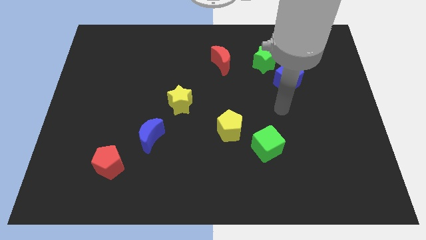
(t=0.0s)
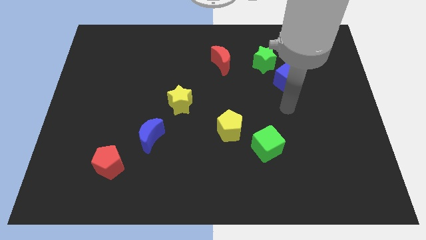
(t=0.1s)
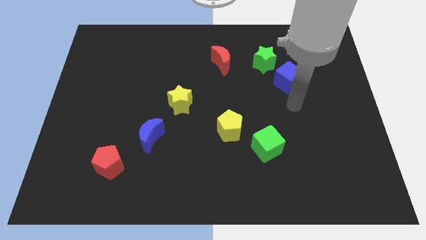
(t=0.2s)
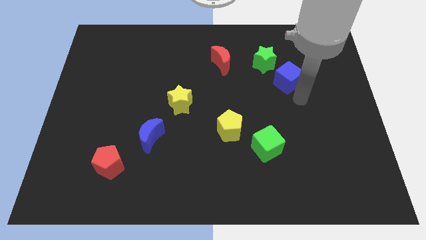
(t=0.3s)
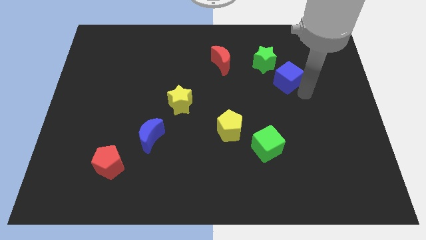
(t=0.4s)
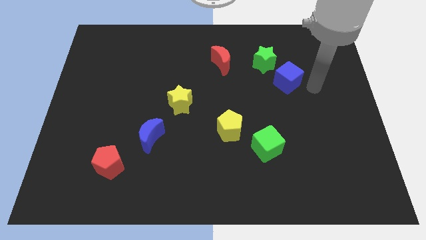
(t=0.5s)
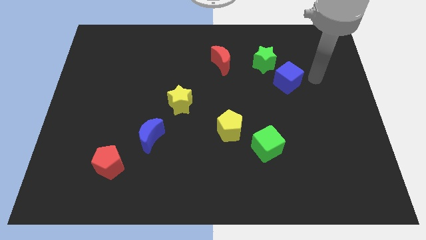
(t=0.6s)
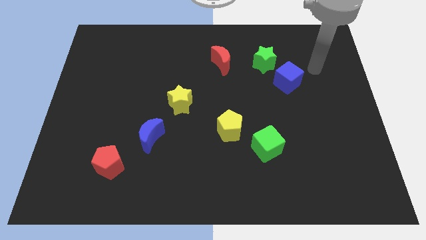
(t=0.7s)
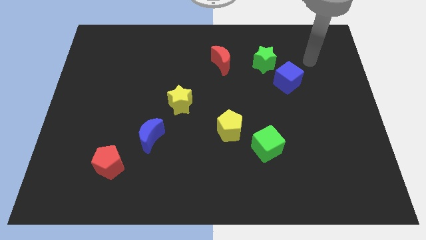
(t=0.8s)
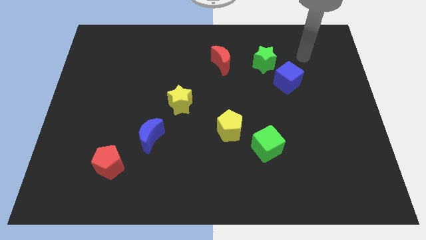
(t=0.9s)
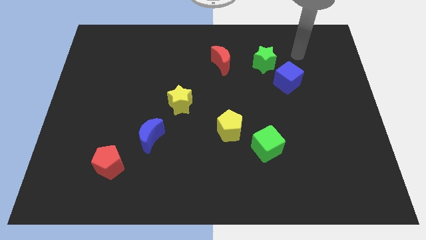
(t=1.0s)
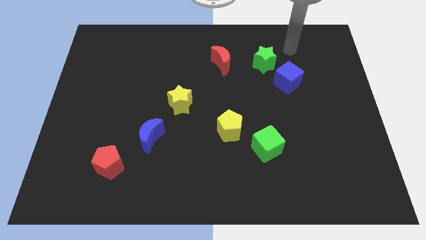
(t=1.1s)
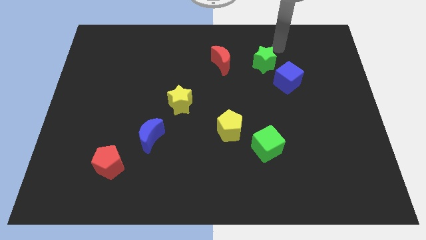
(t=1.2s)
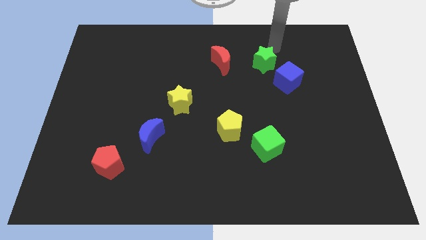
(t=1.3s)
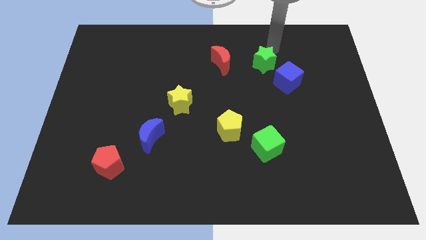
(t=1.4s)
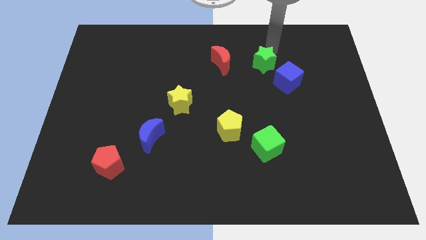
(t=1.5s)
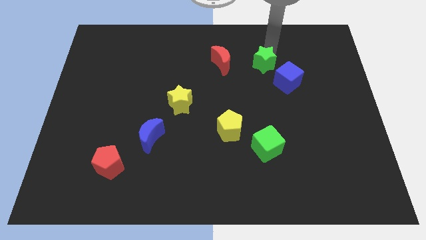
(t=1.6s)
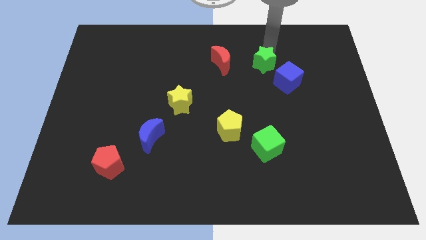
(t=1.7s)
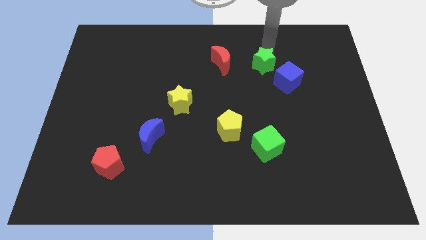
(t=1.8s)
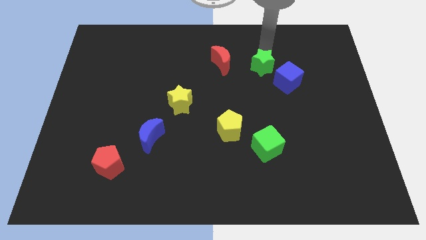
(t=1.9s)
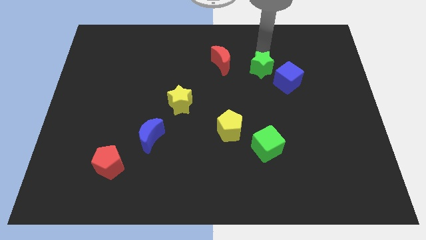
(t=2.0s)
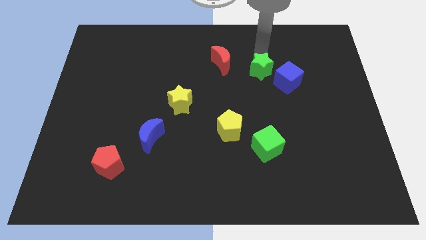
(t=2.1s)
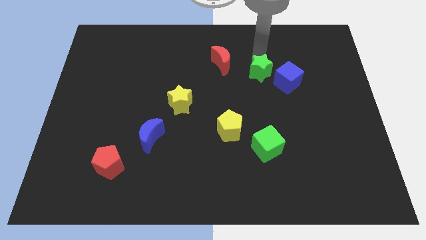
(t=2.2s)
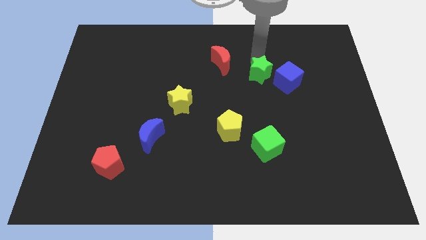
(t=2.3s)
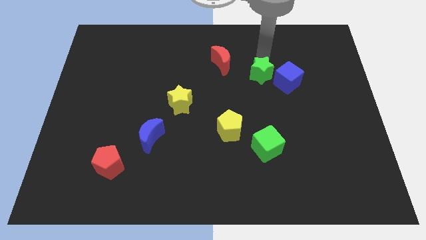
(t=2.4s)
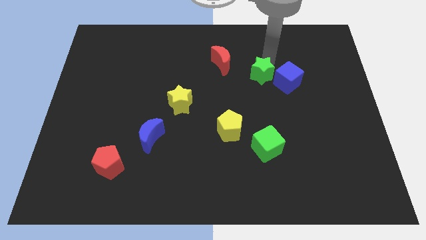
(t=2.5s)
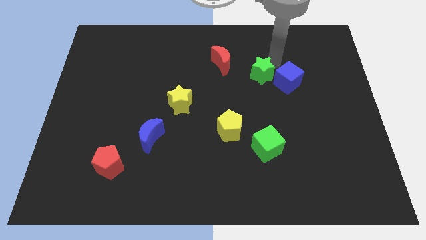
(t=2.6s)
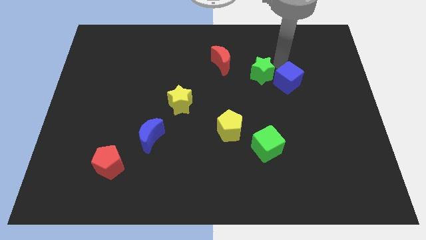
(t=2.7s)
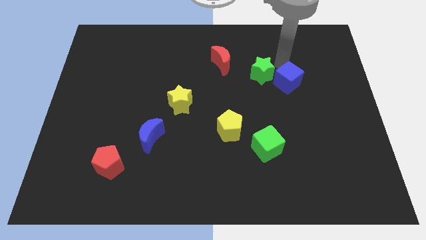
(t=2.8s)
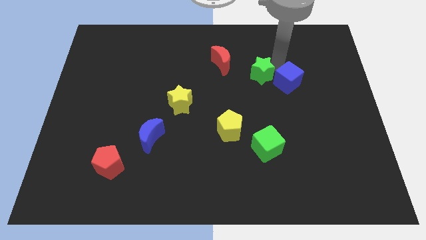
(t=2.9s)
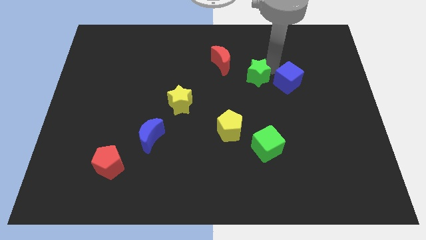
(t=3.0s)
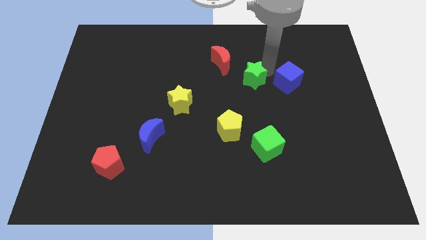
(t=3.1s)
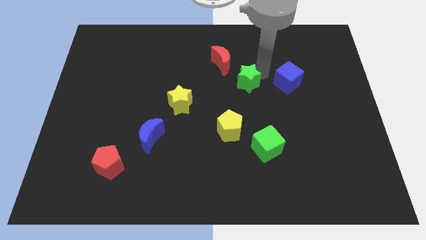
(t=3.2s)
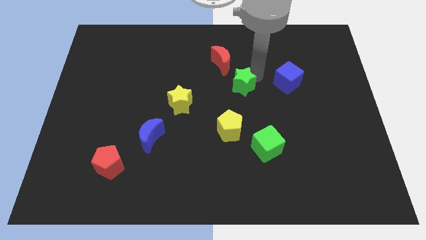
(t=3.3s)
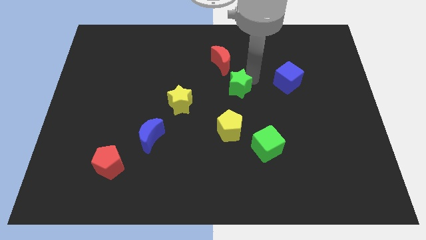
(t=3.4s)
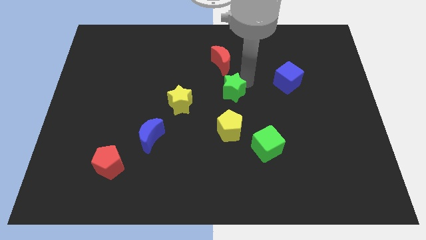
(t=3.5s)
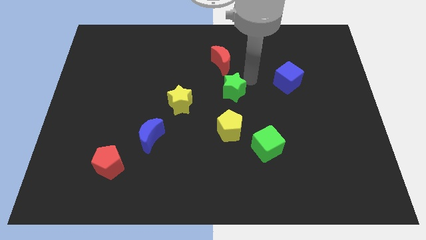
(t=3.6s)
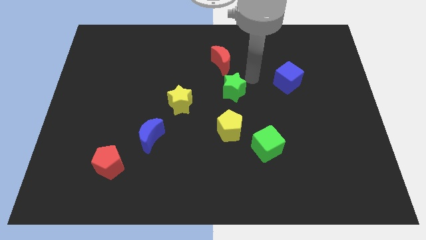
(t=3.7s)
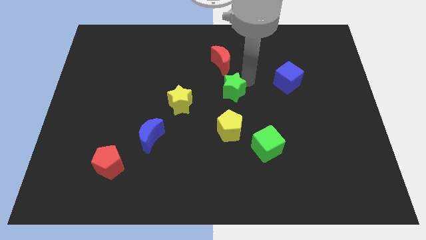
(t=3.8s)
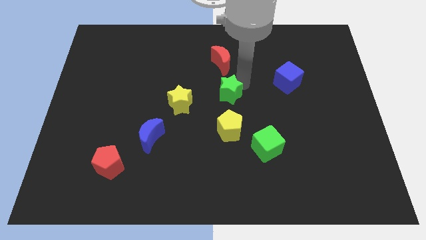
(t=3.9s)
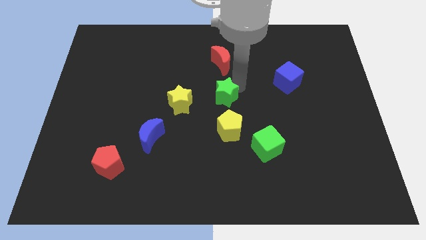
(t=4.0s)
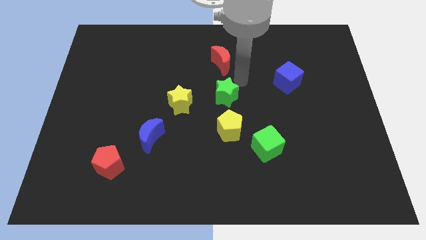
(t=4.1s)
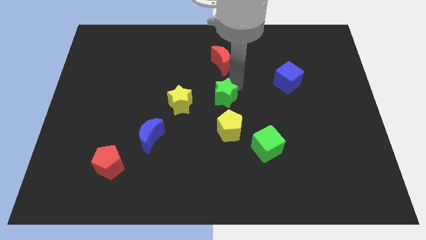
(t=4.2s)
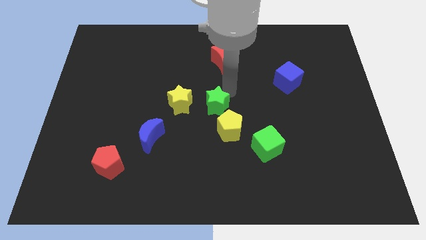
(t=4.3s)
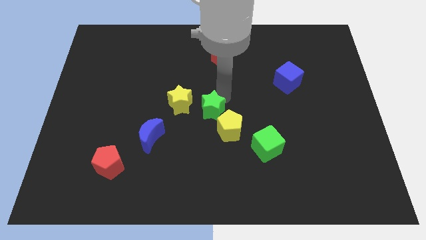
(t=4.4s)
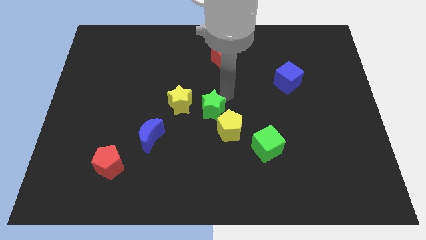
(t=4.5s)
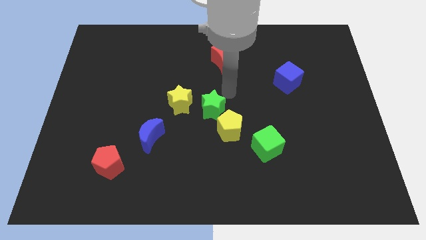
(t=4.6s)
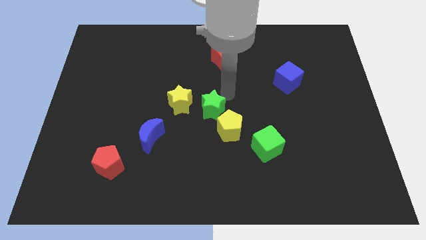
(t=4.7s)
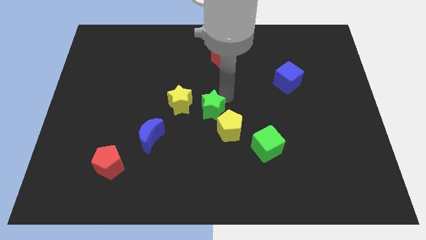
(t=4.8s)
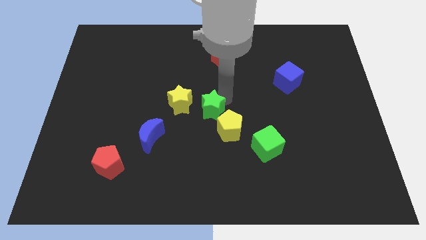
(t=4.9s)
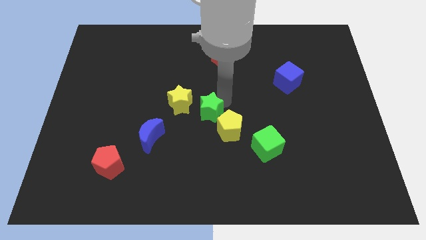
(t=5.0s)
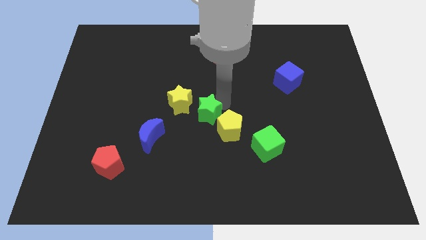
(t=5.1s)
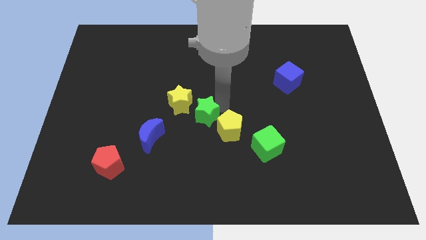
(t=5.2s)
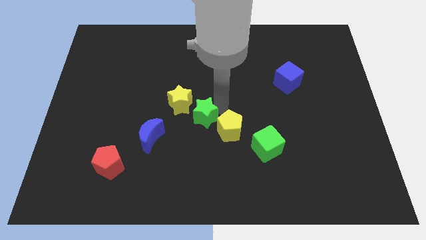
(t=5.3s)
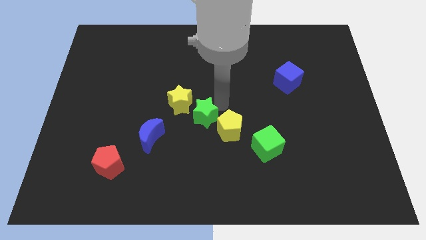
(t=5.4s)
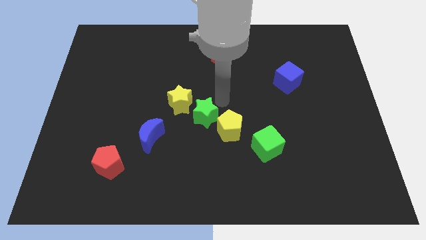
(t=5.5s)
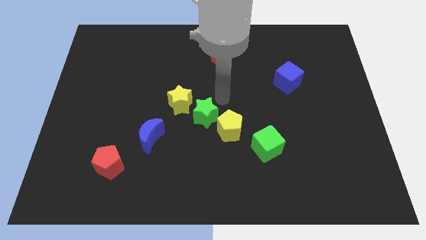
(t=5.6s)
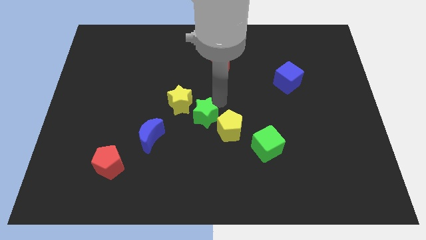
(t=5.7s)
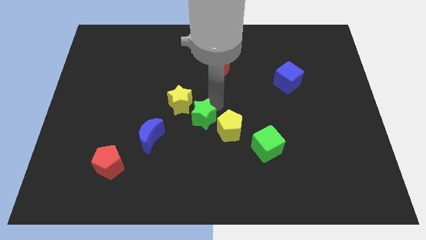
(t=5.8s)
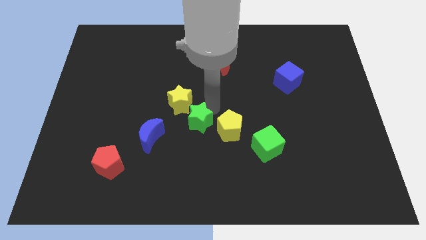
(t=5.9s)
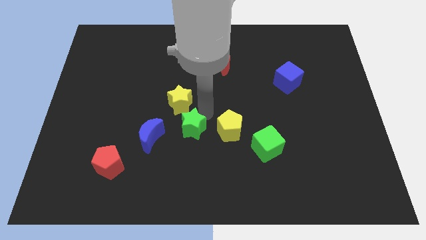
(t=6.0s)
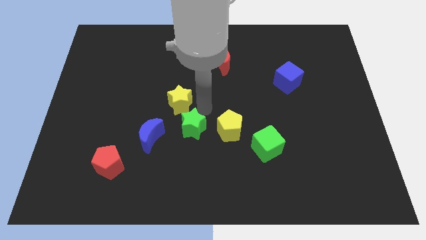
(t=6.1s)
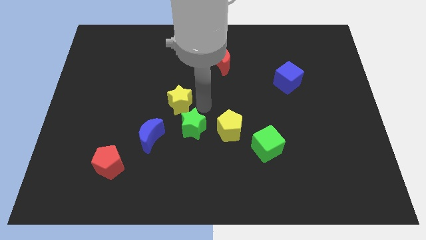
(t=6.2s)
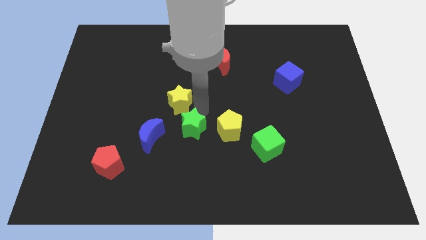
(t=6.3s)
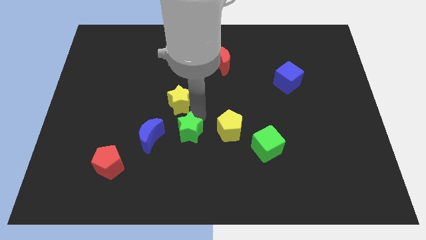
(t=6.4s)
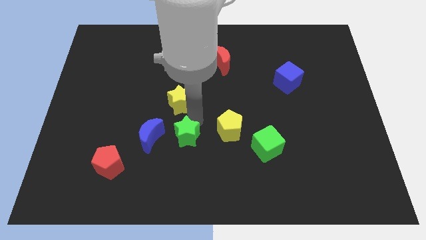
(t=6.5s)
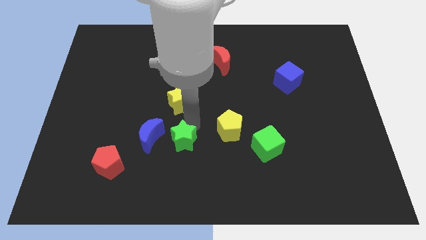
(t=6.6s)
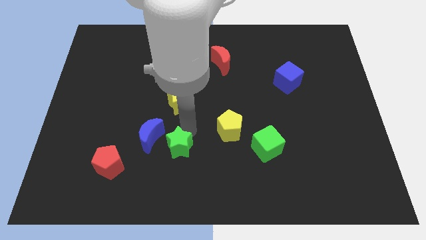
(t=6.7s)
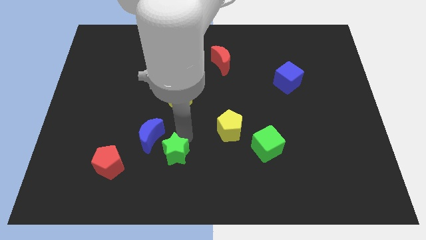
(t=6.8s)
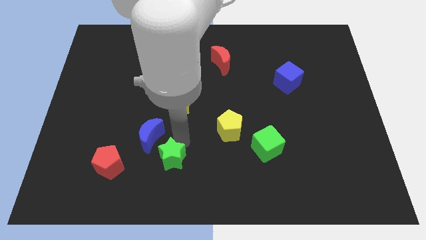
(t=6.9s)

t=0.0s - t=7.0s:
push the green star to the bottom side of the blue moon

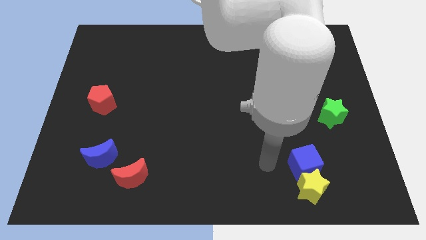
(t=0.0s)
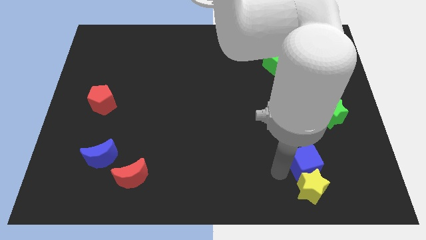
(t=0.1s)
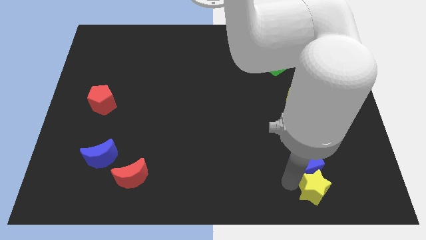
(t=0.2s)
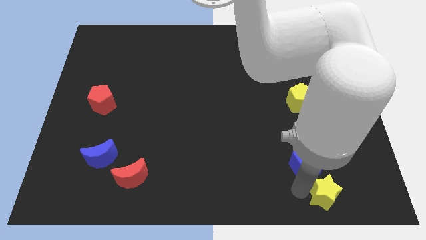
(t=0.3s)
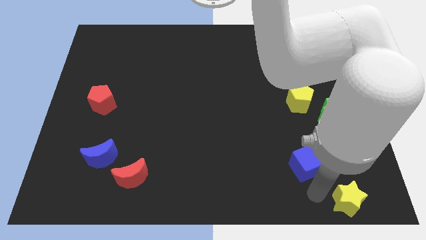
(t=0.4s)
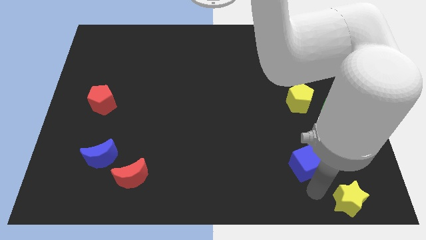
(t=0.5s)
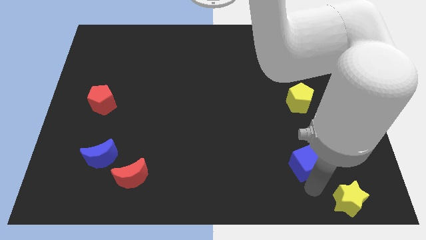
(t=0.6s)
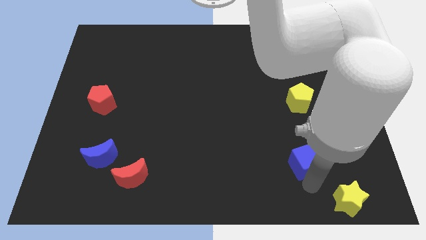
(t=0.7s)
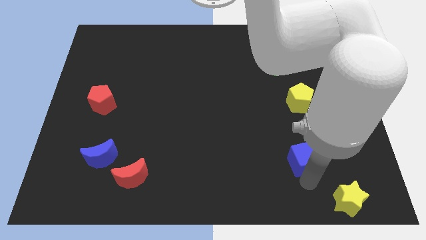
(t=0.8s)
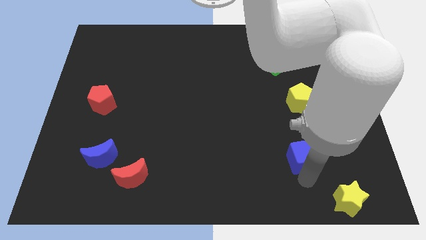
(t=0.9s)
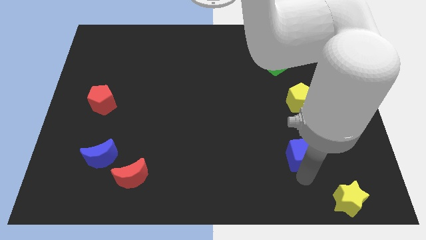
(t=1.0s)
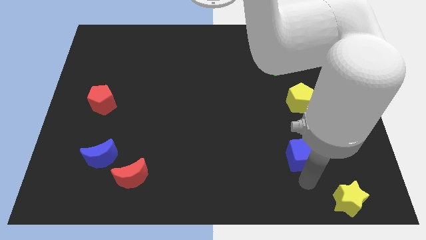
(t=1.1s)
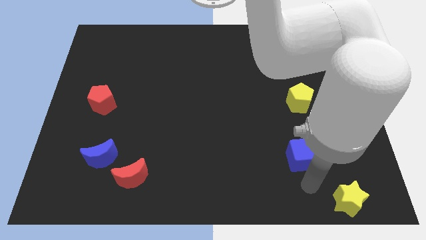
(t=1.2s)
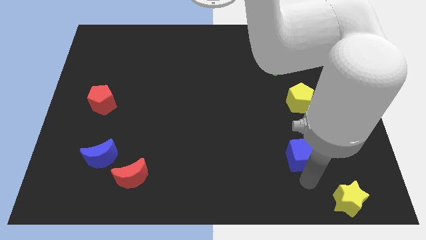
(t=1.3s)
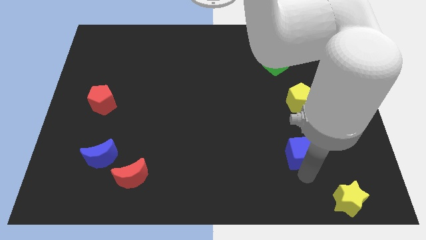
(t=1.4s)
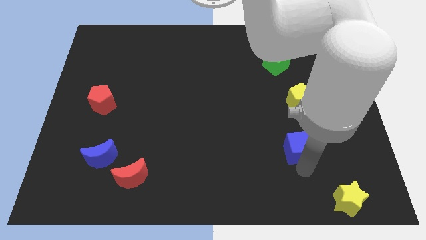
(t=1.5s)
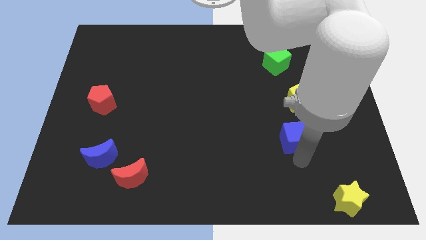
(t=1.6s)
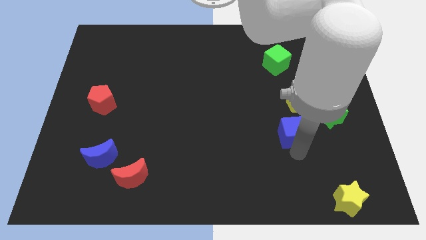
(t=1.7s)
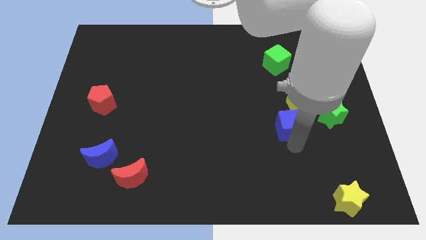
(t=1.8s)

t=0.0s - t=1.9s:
put the blue cube left of the green star
